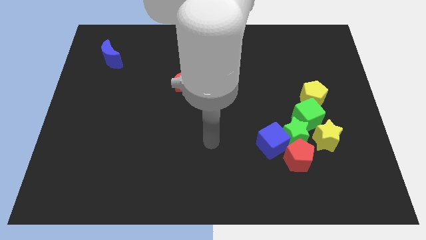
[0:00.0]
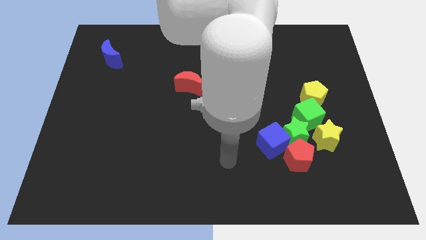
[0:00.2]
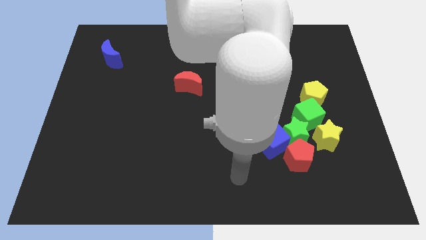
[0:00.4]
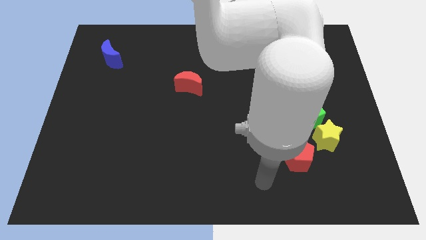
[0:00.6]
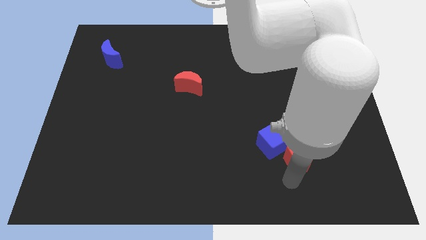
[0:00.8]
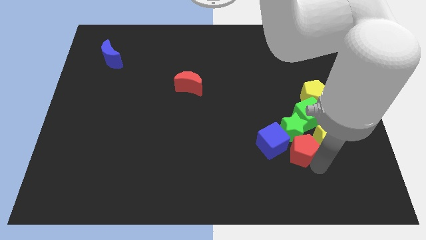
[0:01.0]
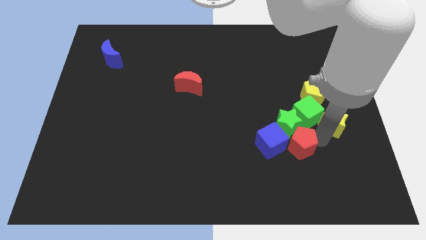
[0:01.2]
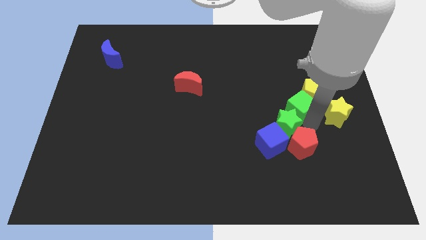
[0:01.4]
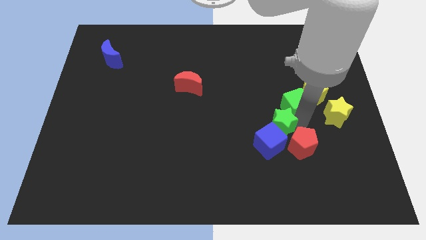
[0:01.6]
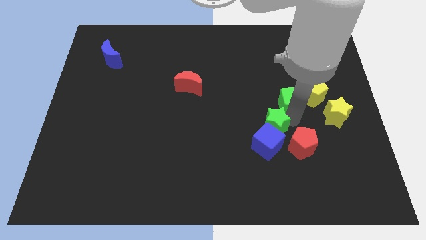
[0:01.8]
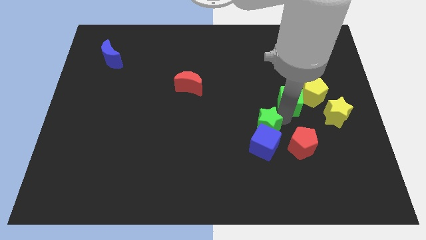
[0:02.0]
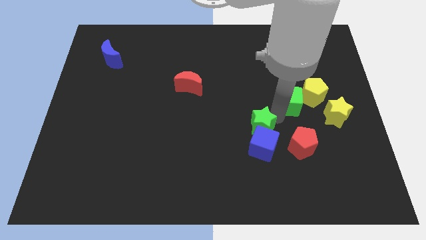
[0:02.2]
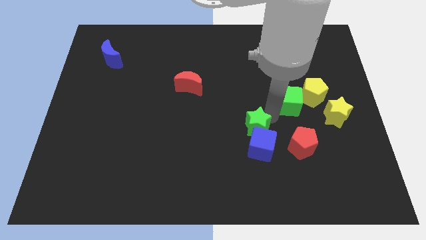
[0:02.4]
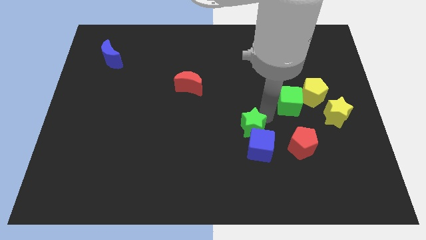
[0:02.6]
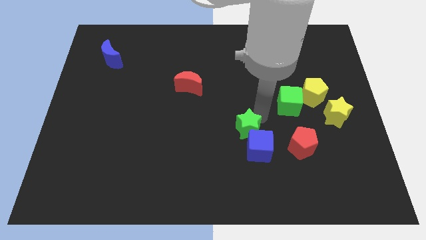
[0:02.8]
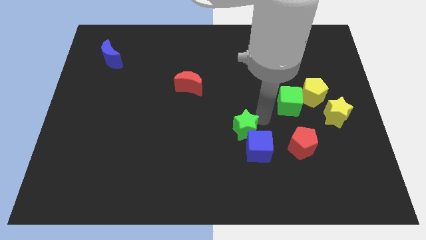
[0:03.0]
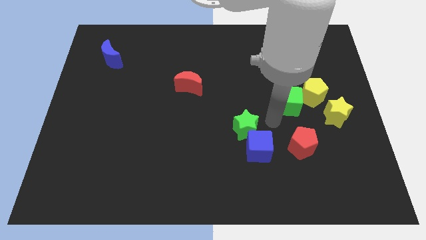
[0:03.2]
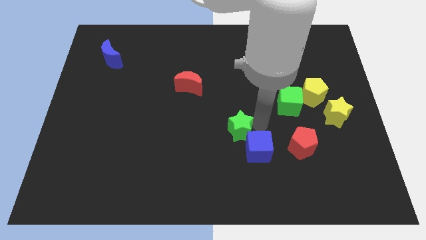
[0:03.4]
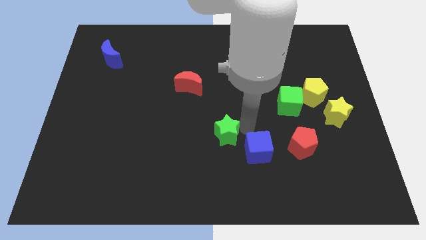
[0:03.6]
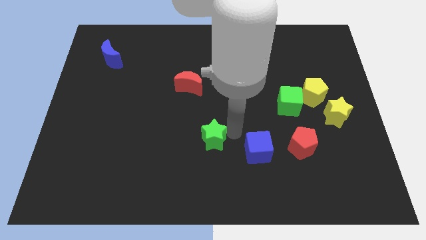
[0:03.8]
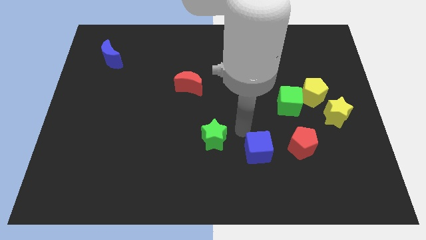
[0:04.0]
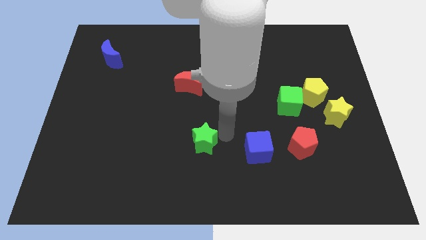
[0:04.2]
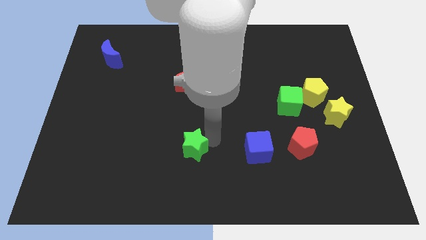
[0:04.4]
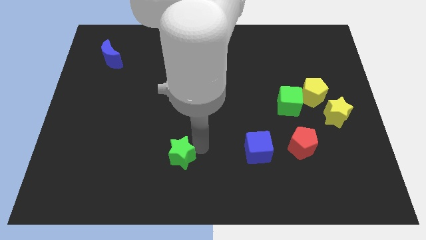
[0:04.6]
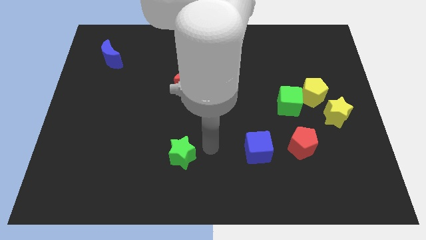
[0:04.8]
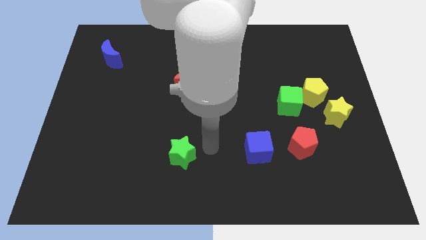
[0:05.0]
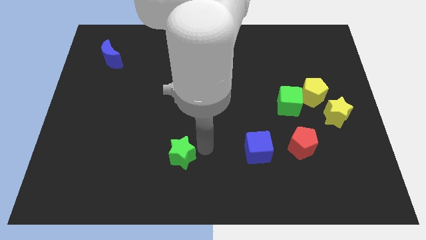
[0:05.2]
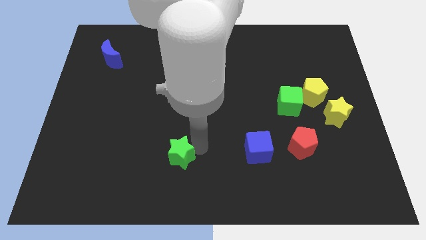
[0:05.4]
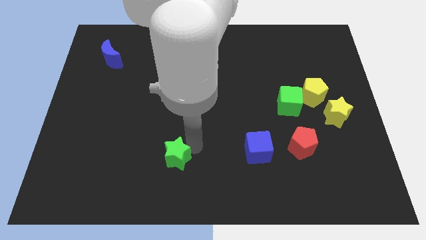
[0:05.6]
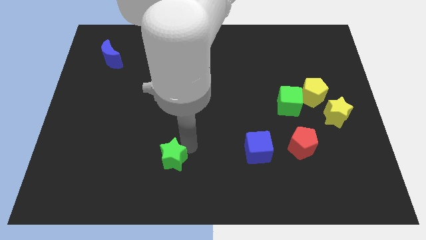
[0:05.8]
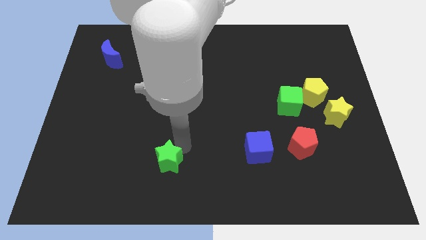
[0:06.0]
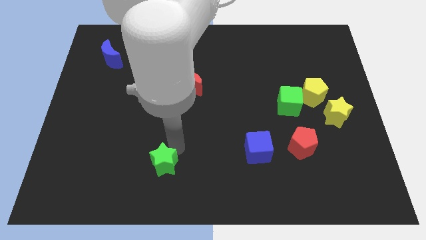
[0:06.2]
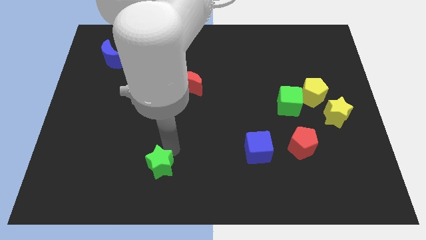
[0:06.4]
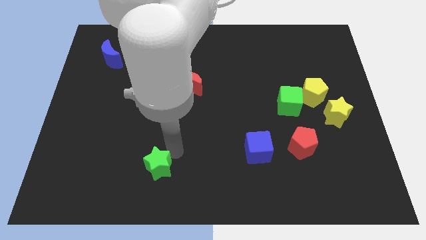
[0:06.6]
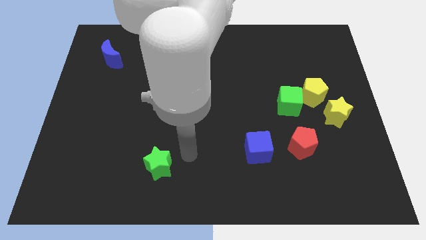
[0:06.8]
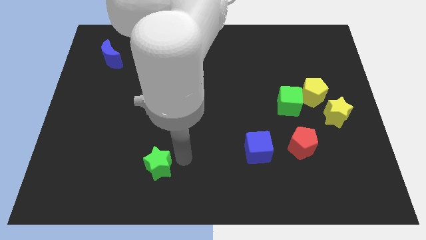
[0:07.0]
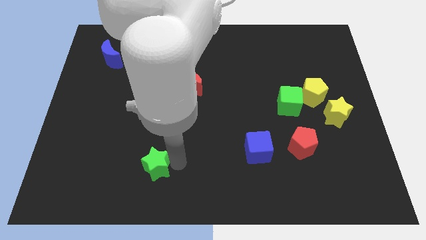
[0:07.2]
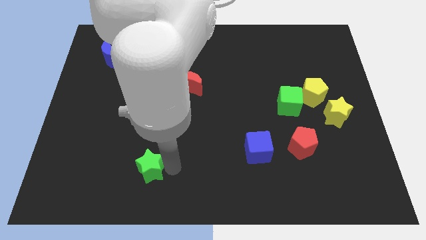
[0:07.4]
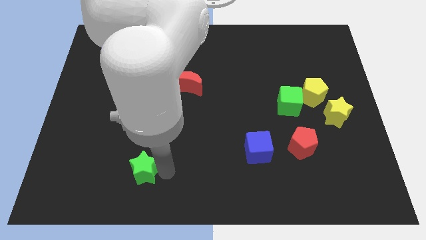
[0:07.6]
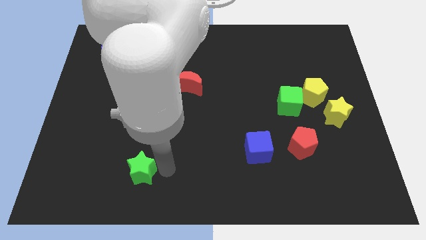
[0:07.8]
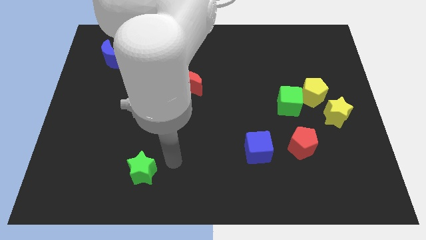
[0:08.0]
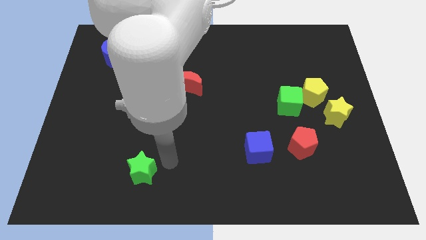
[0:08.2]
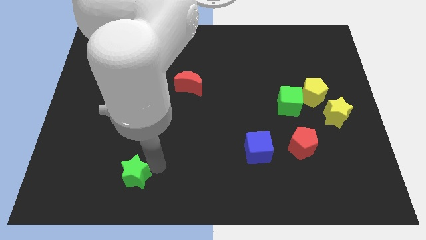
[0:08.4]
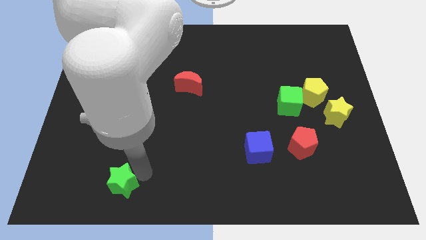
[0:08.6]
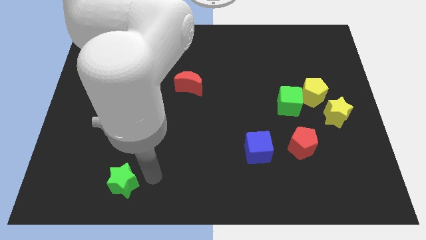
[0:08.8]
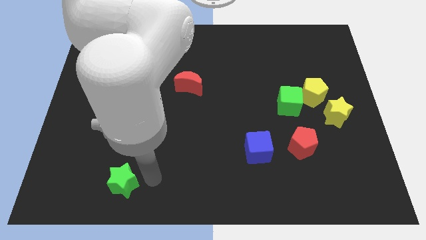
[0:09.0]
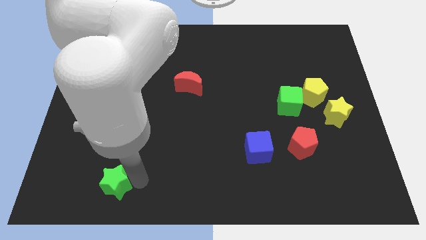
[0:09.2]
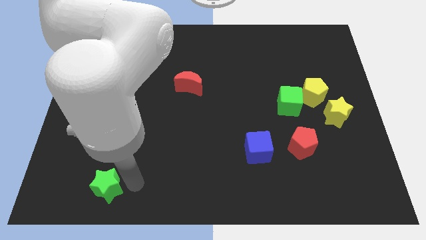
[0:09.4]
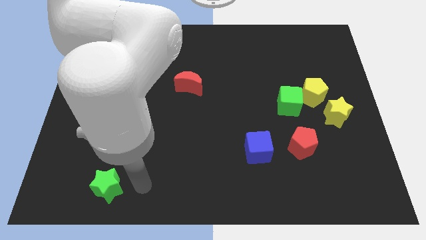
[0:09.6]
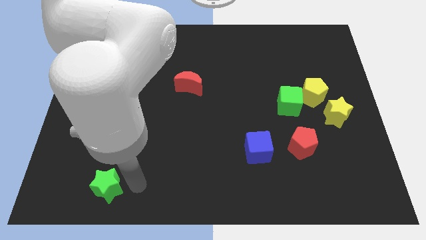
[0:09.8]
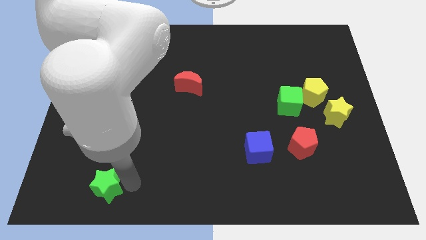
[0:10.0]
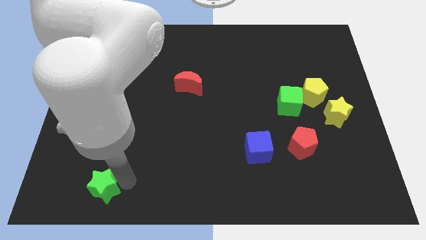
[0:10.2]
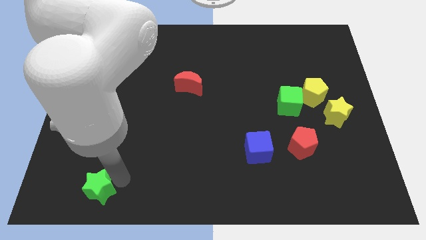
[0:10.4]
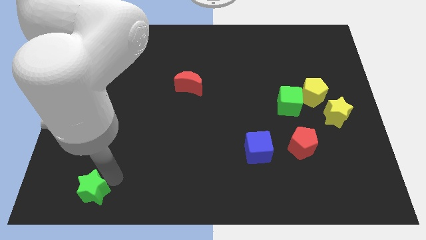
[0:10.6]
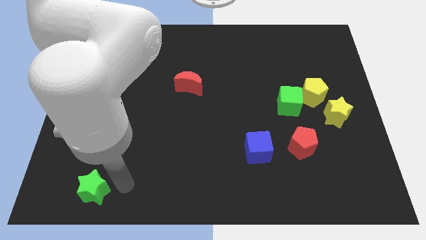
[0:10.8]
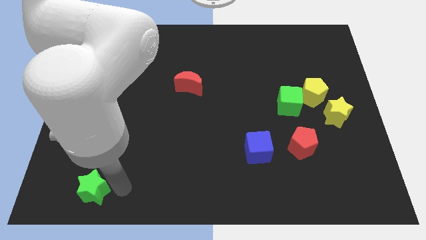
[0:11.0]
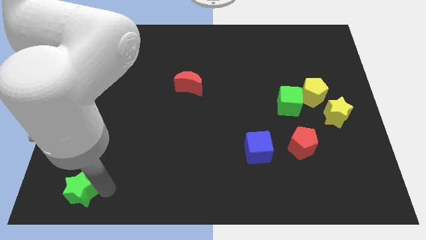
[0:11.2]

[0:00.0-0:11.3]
slide the green star to the bottom left of the board

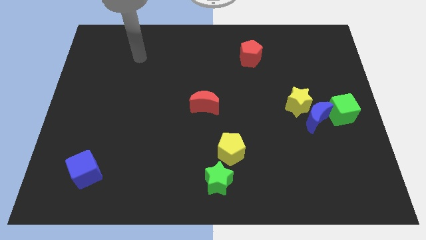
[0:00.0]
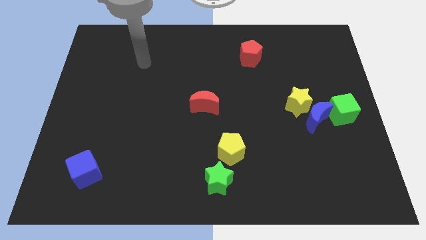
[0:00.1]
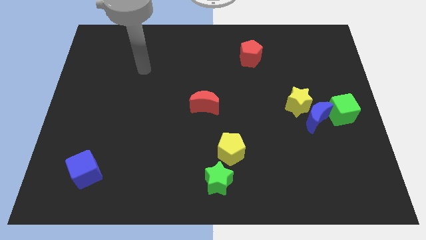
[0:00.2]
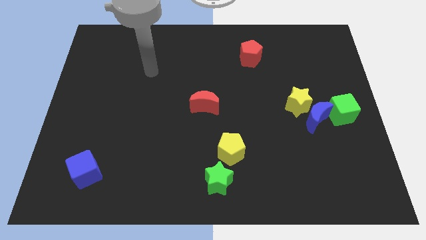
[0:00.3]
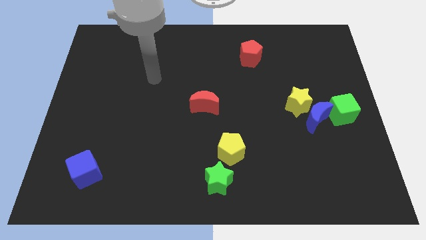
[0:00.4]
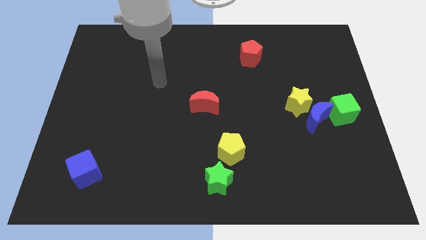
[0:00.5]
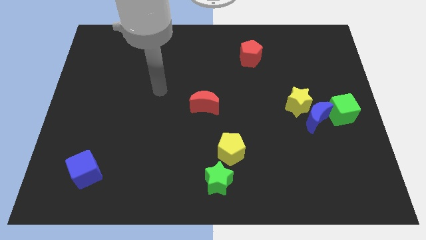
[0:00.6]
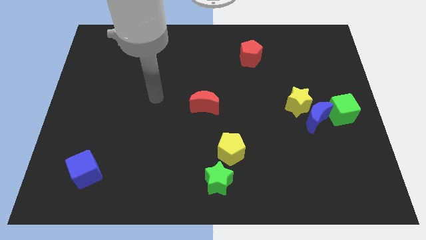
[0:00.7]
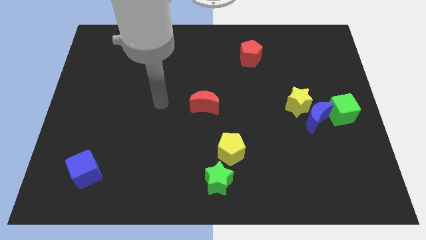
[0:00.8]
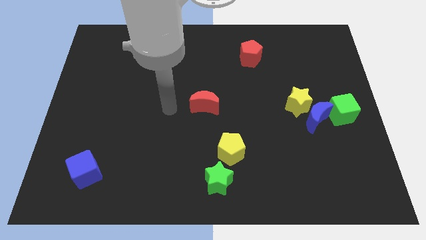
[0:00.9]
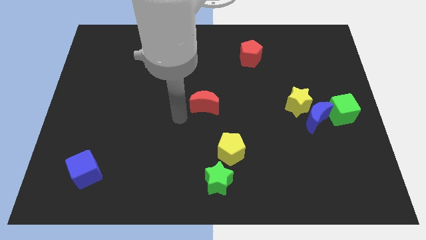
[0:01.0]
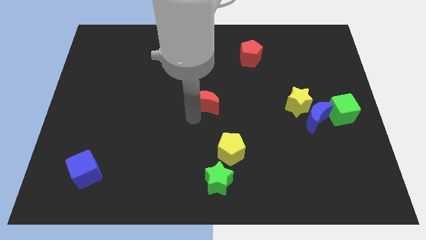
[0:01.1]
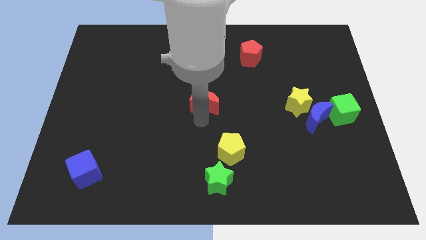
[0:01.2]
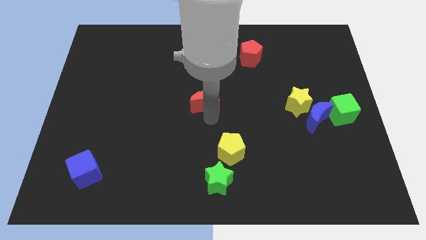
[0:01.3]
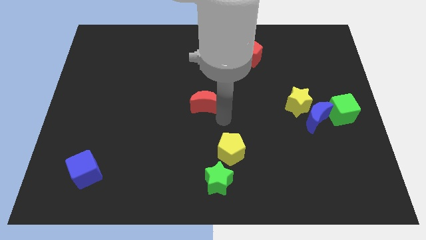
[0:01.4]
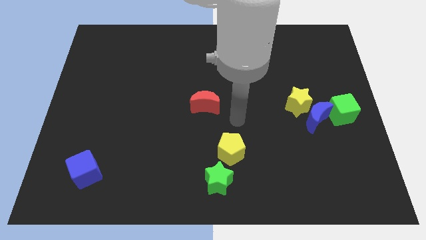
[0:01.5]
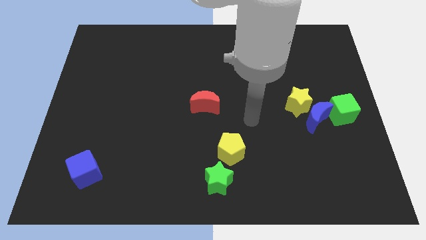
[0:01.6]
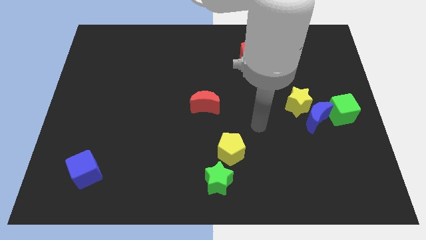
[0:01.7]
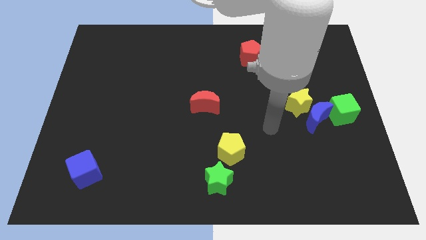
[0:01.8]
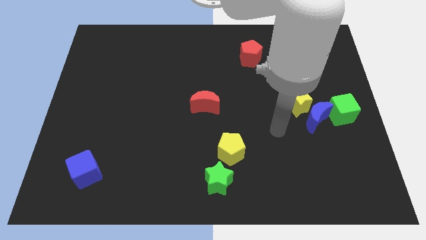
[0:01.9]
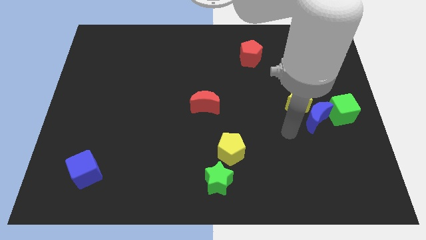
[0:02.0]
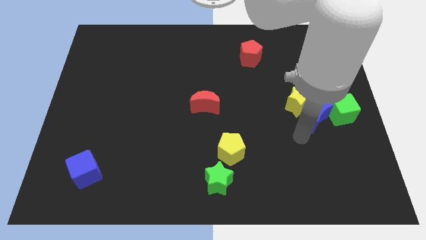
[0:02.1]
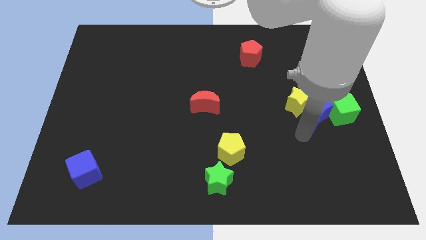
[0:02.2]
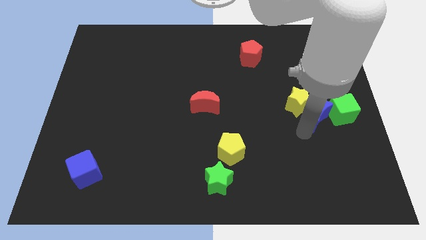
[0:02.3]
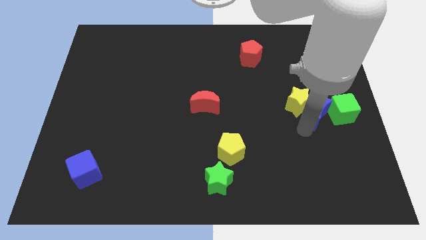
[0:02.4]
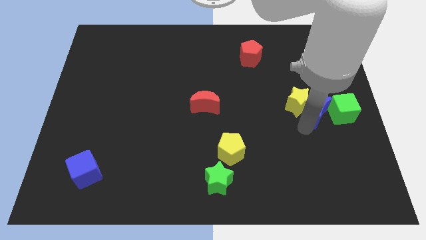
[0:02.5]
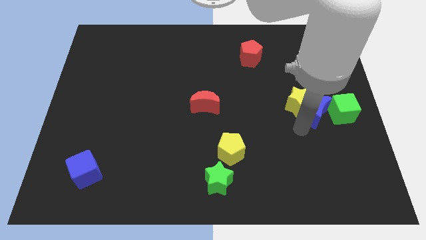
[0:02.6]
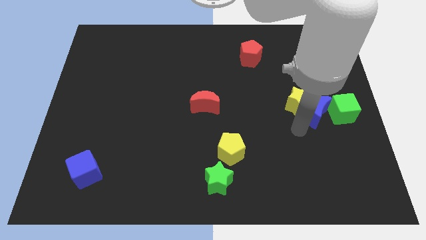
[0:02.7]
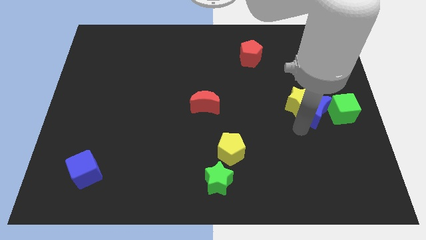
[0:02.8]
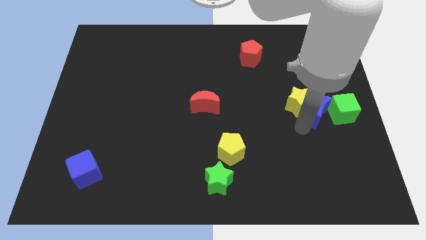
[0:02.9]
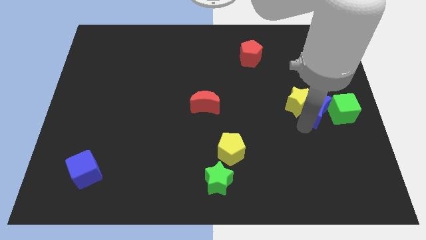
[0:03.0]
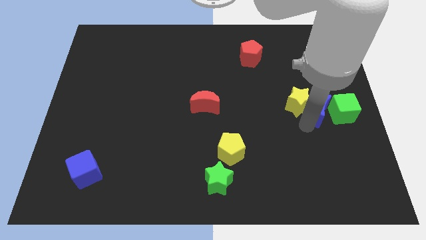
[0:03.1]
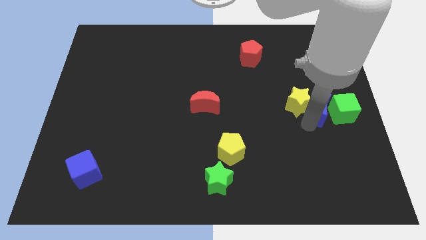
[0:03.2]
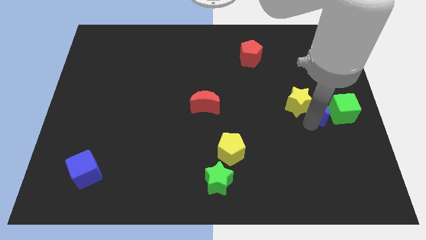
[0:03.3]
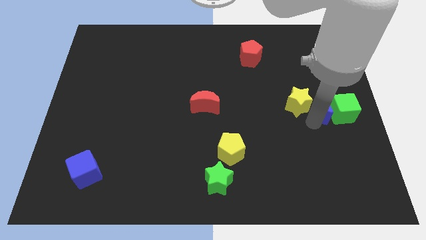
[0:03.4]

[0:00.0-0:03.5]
move the blue moon to the right side
